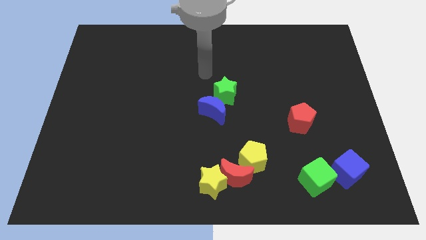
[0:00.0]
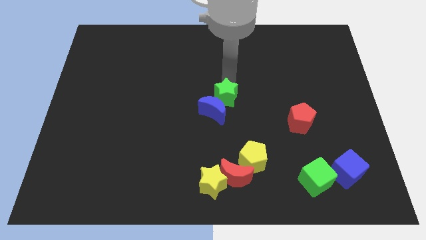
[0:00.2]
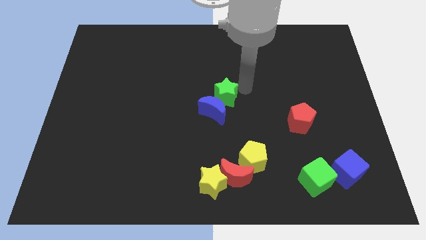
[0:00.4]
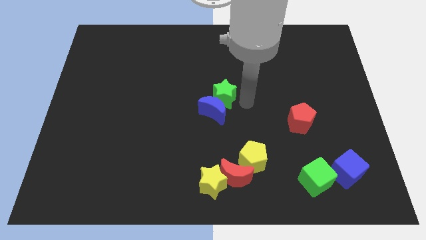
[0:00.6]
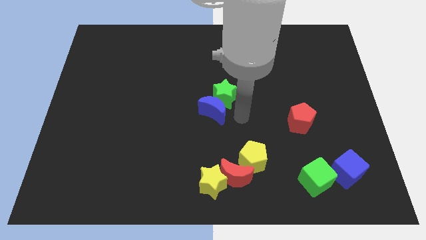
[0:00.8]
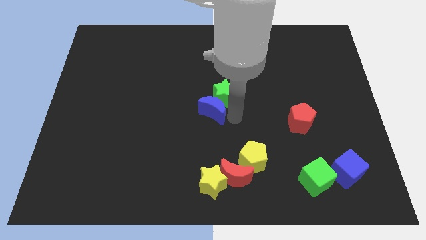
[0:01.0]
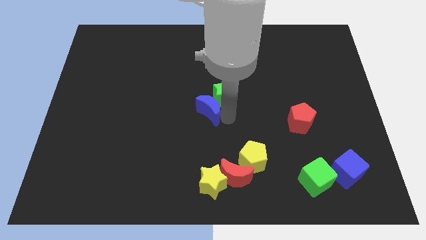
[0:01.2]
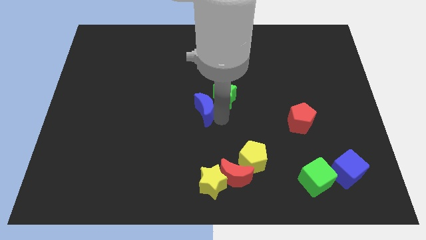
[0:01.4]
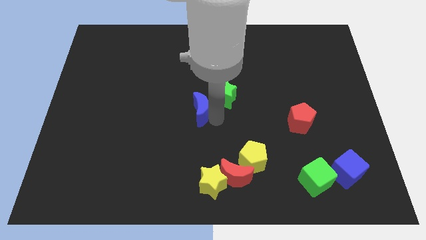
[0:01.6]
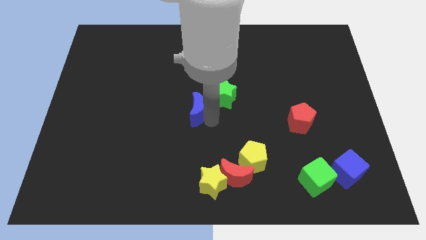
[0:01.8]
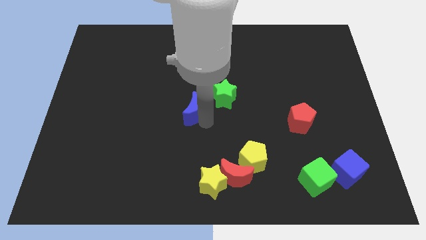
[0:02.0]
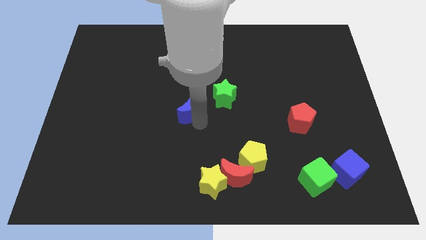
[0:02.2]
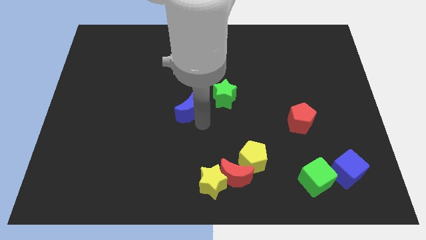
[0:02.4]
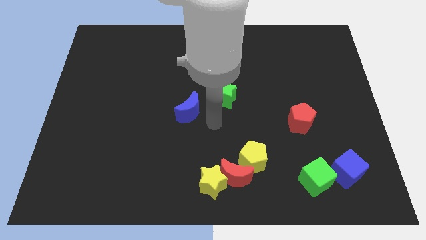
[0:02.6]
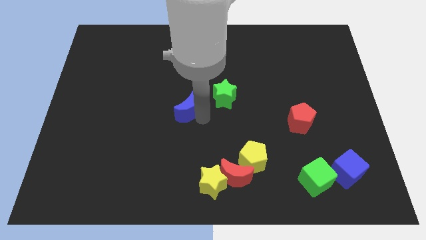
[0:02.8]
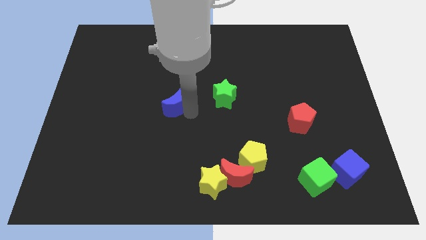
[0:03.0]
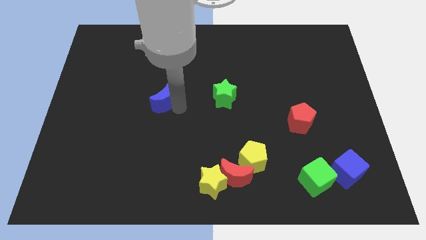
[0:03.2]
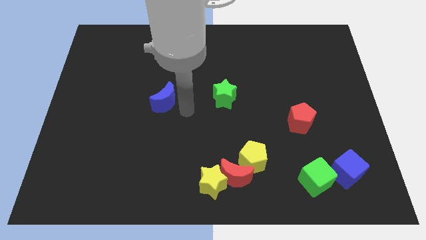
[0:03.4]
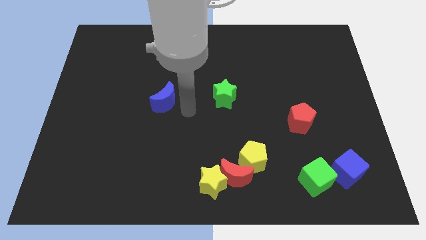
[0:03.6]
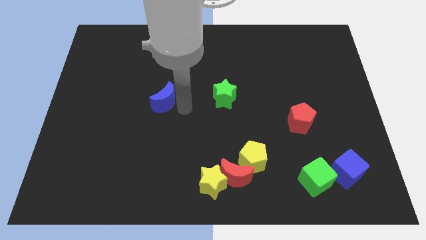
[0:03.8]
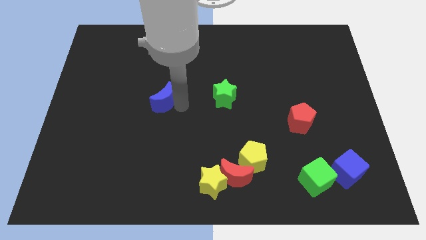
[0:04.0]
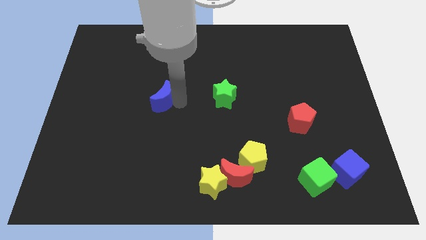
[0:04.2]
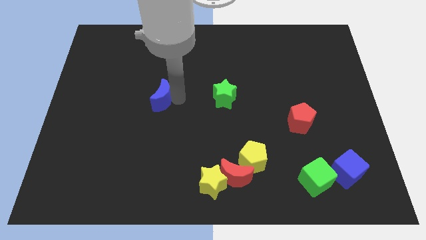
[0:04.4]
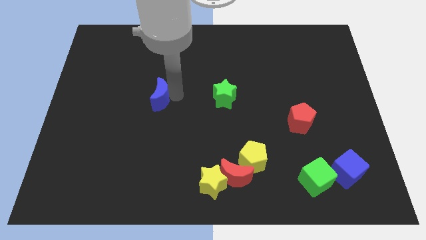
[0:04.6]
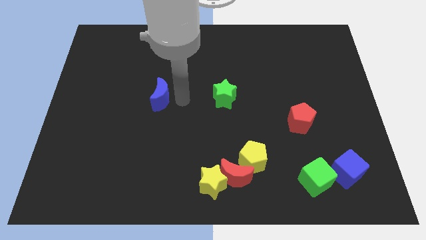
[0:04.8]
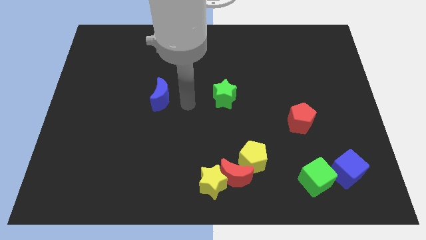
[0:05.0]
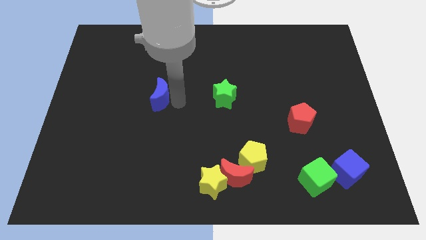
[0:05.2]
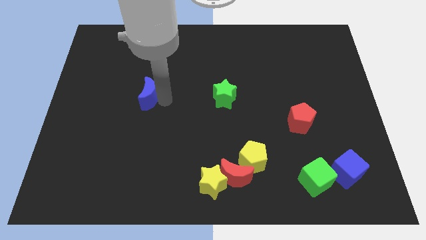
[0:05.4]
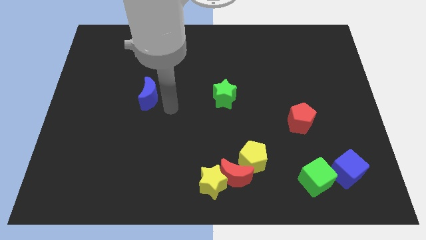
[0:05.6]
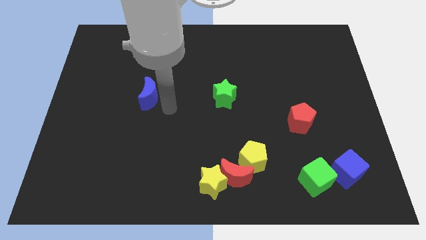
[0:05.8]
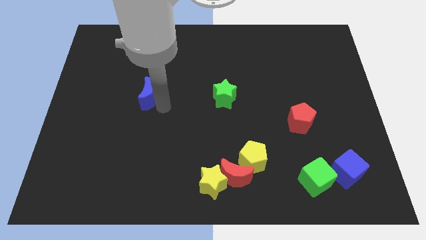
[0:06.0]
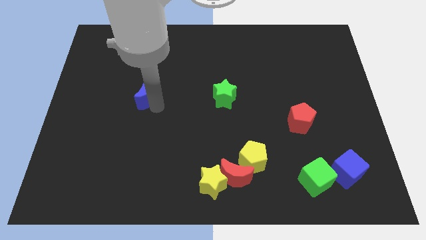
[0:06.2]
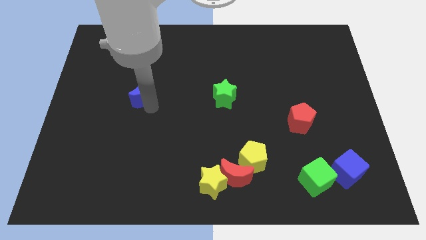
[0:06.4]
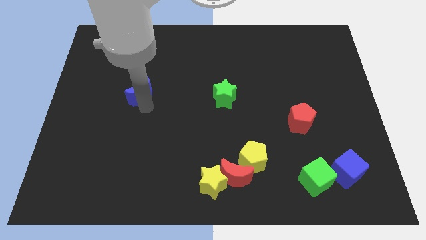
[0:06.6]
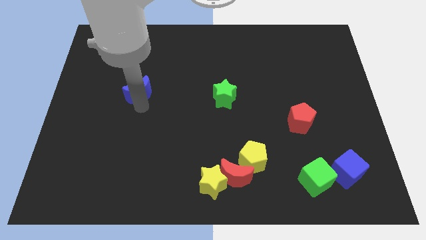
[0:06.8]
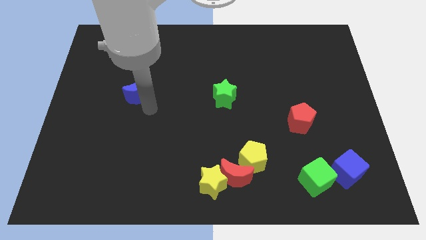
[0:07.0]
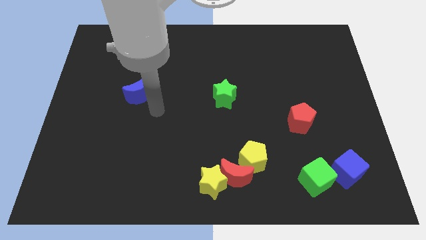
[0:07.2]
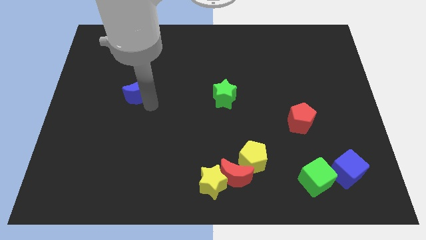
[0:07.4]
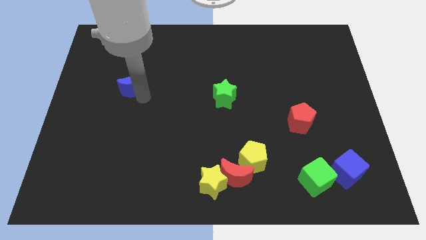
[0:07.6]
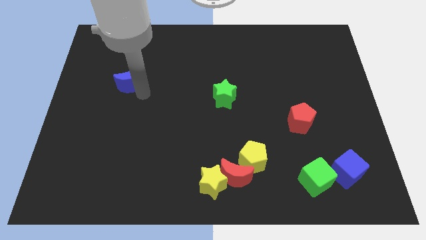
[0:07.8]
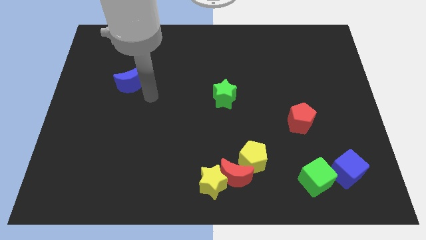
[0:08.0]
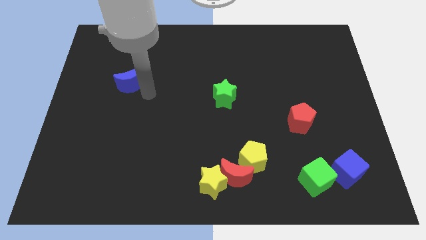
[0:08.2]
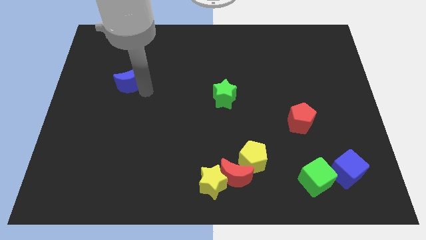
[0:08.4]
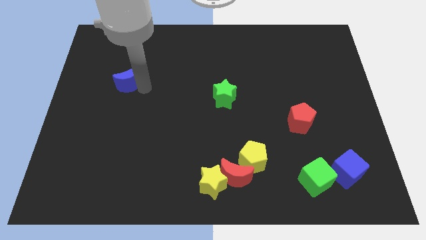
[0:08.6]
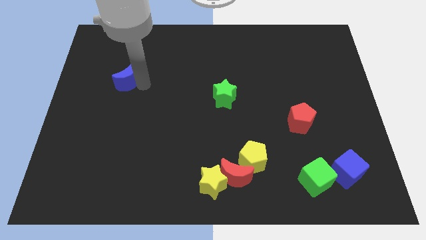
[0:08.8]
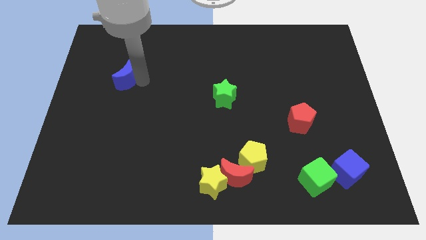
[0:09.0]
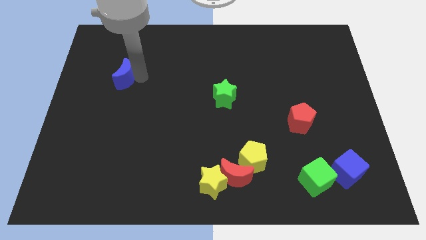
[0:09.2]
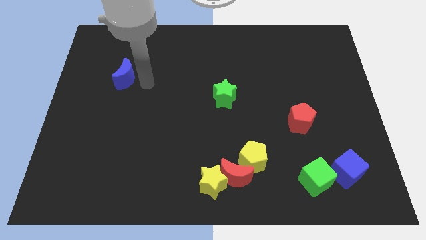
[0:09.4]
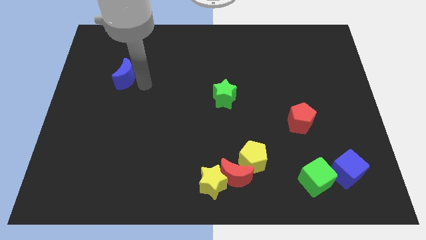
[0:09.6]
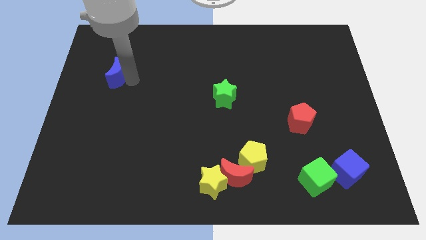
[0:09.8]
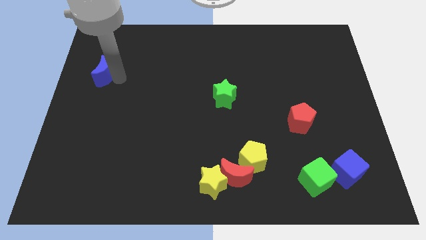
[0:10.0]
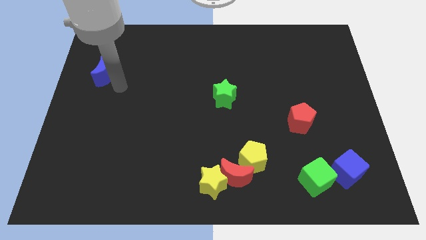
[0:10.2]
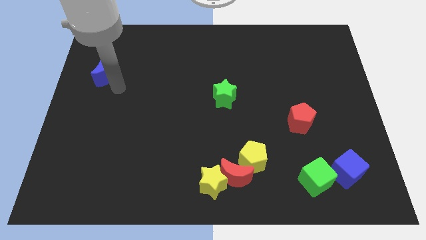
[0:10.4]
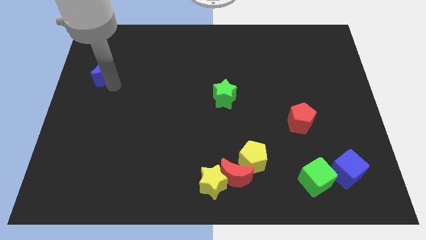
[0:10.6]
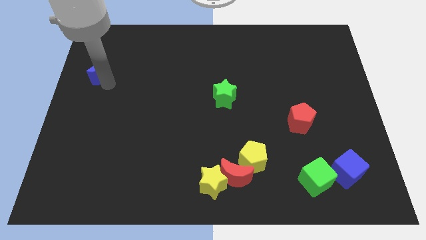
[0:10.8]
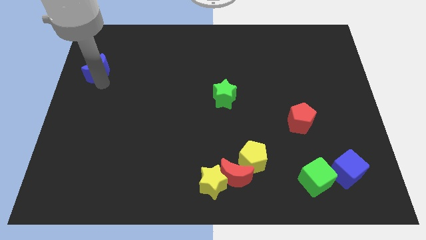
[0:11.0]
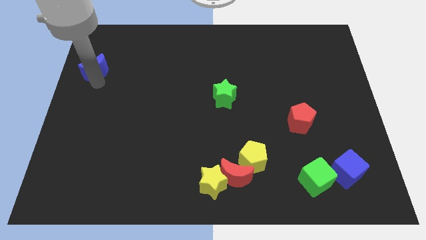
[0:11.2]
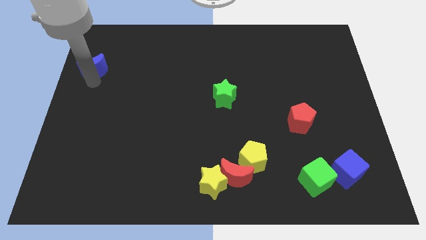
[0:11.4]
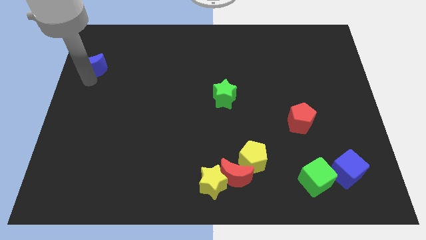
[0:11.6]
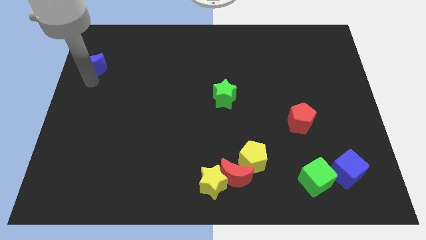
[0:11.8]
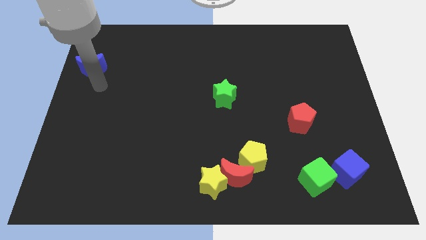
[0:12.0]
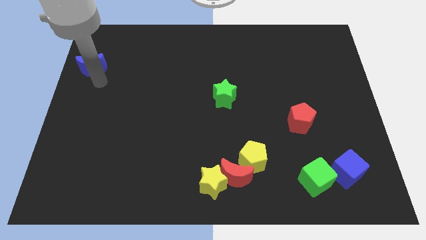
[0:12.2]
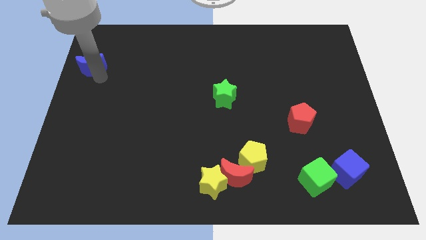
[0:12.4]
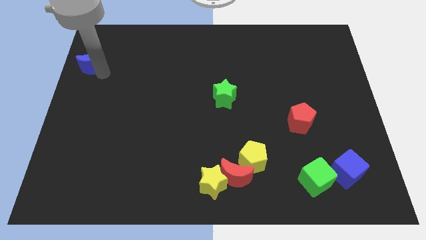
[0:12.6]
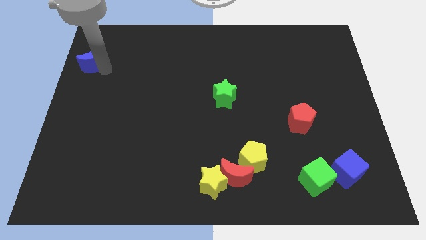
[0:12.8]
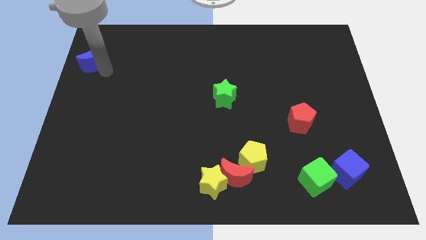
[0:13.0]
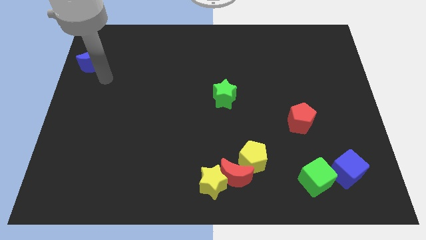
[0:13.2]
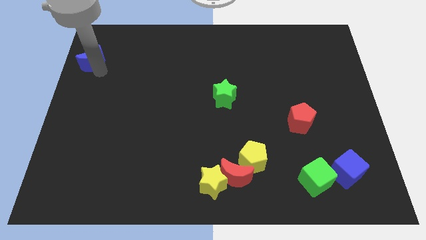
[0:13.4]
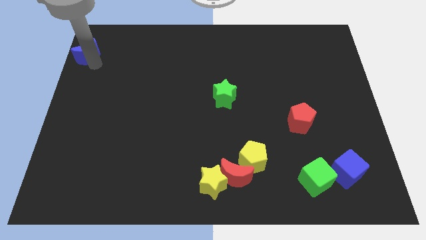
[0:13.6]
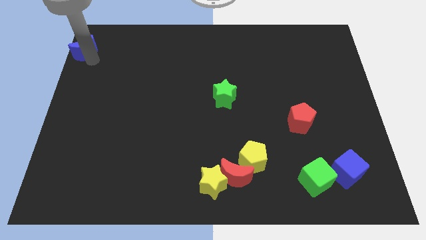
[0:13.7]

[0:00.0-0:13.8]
push the blue moon to the upper left corner

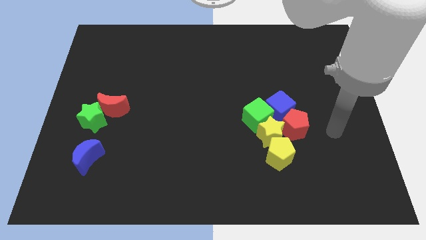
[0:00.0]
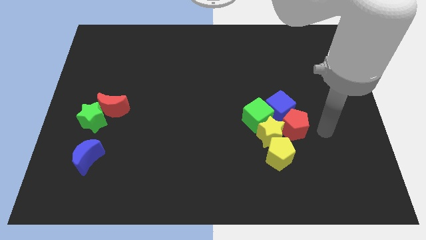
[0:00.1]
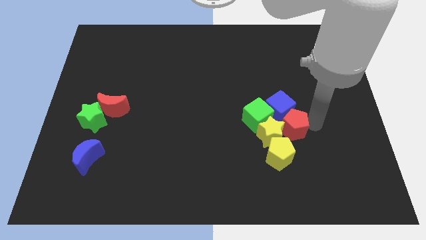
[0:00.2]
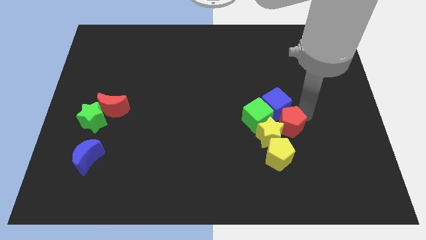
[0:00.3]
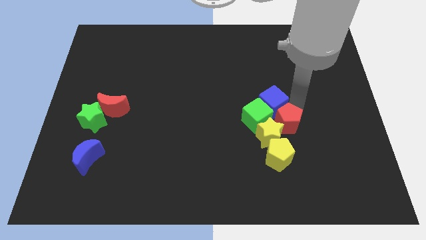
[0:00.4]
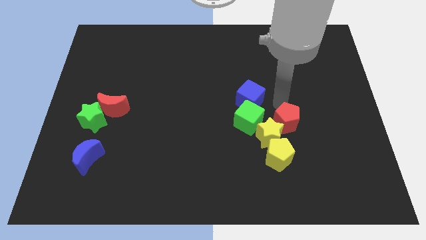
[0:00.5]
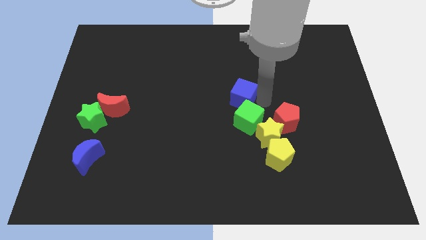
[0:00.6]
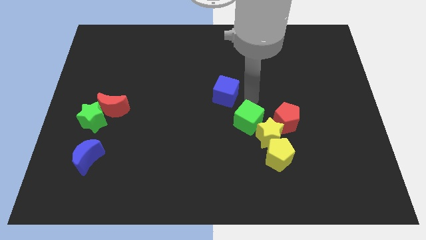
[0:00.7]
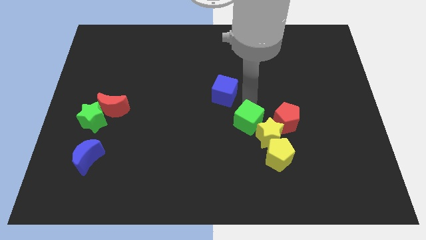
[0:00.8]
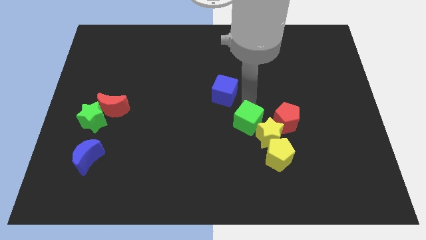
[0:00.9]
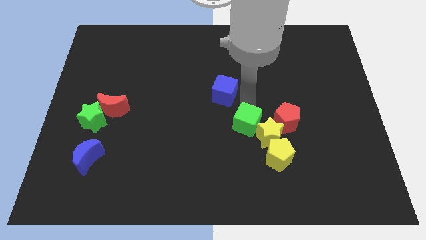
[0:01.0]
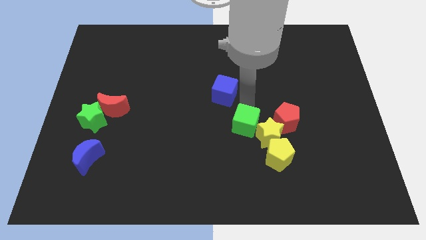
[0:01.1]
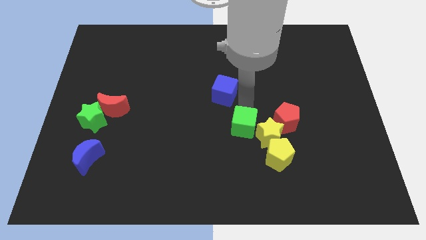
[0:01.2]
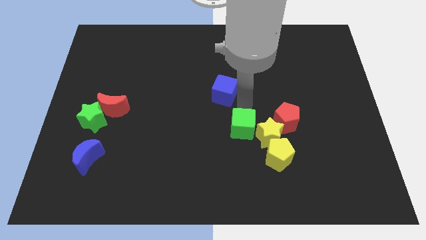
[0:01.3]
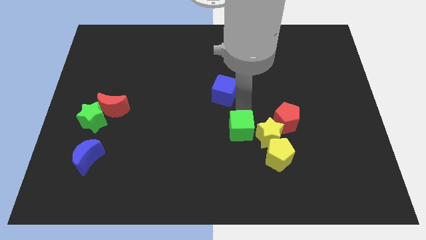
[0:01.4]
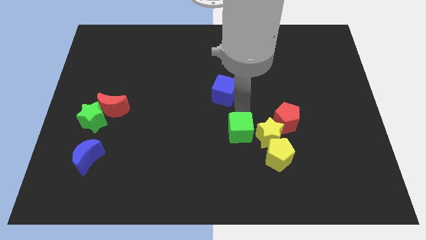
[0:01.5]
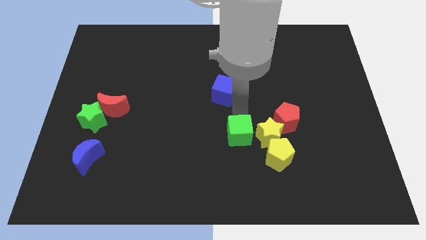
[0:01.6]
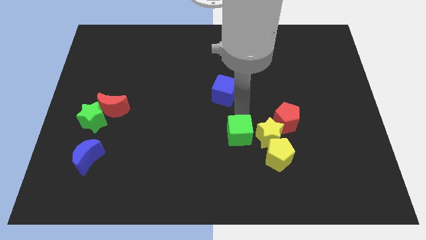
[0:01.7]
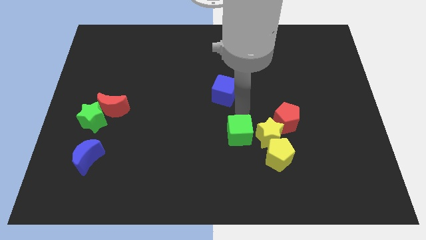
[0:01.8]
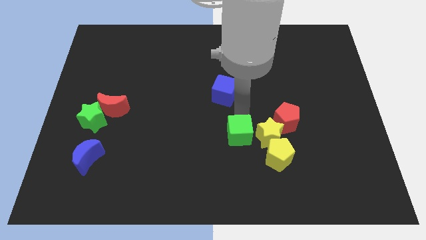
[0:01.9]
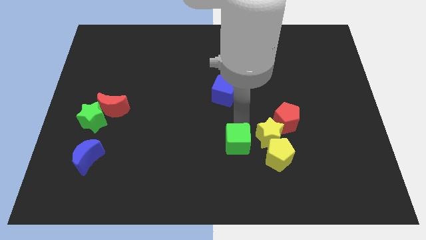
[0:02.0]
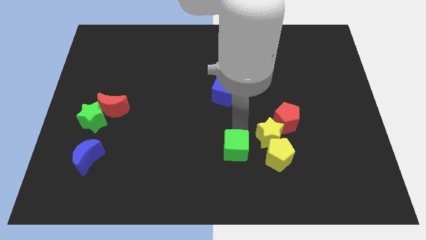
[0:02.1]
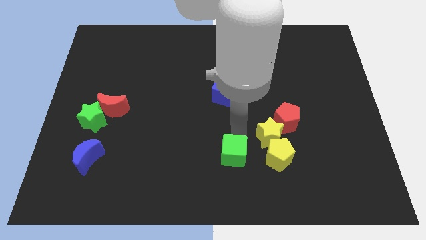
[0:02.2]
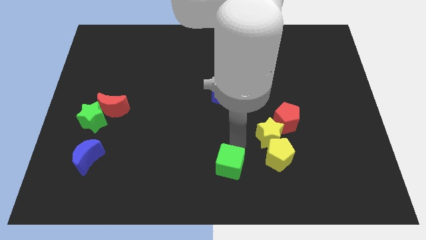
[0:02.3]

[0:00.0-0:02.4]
move the green cube to the bottom side
